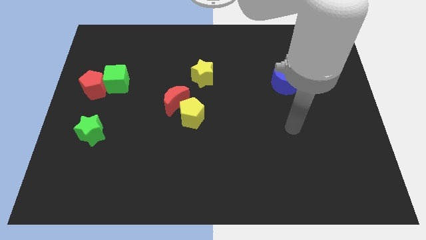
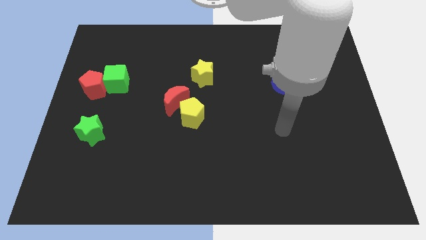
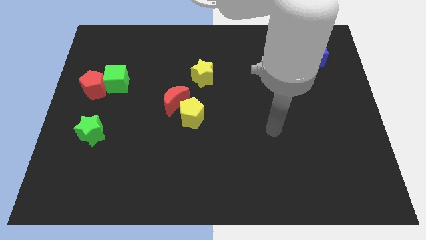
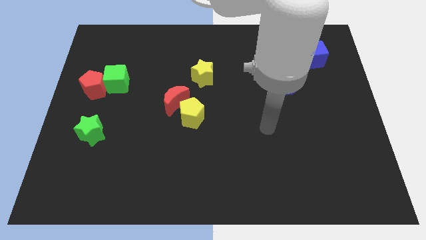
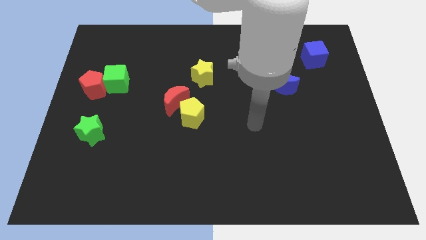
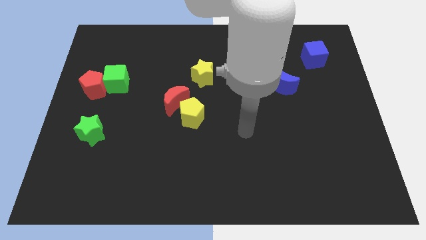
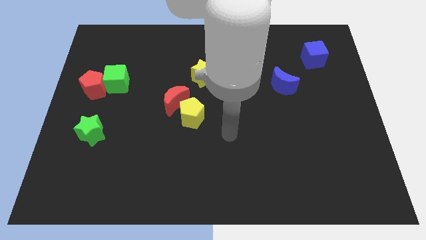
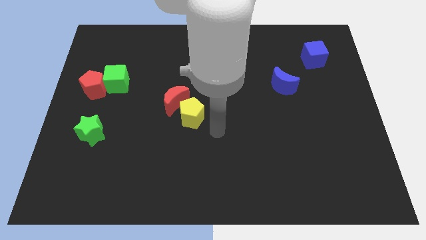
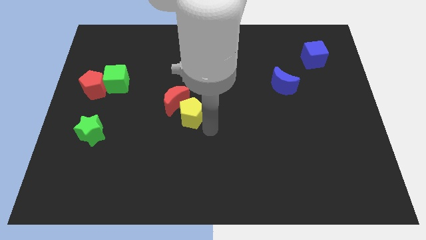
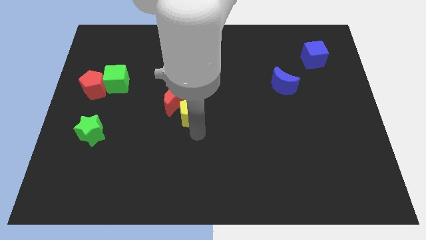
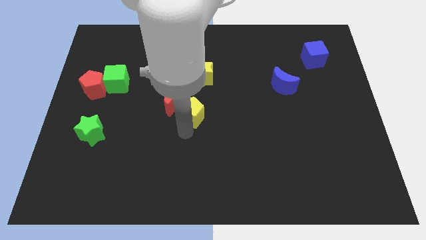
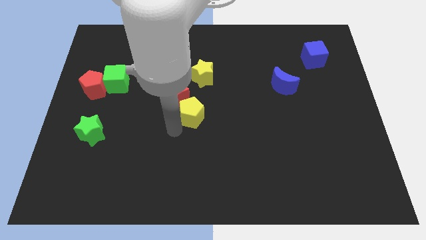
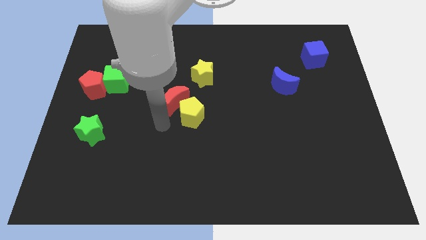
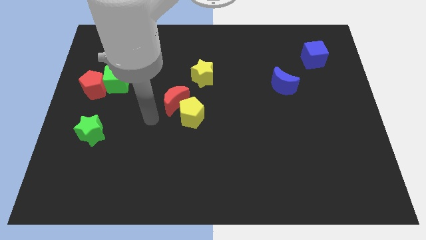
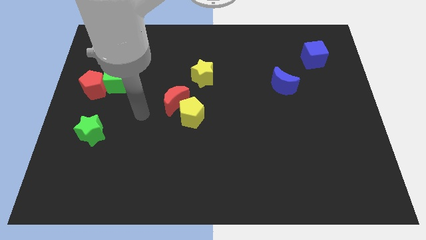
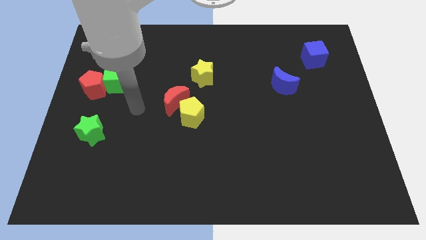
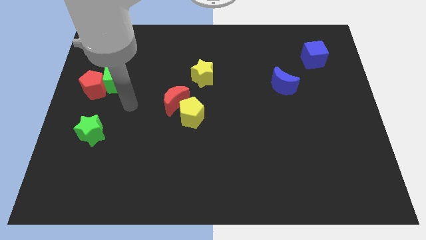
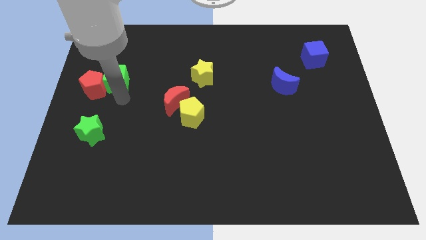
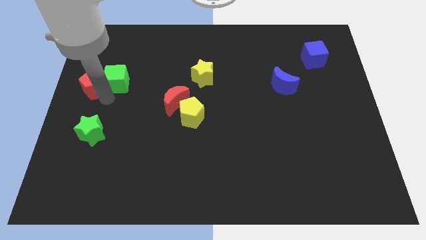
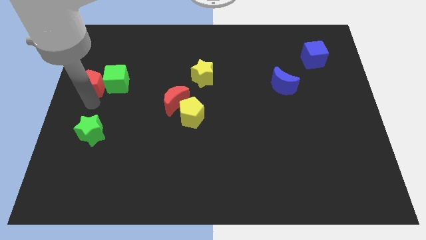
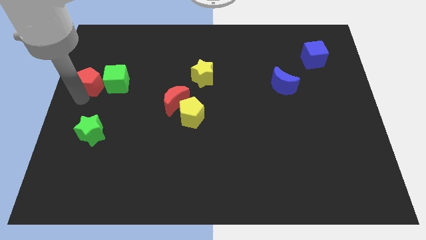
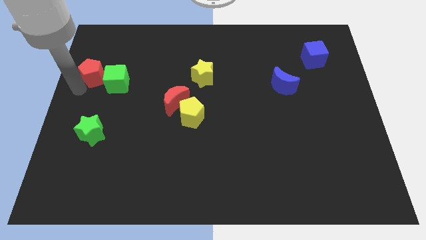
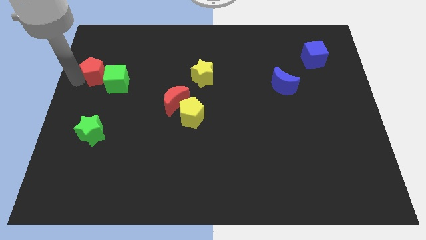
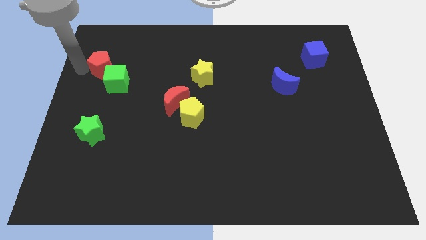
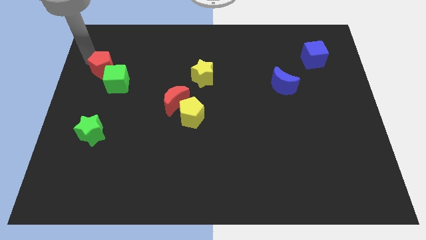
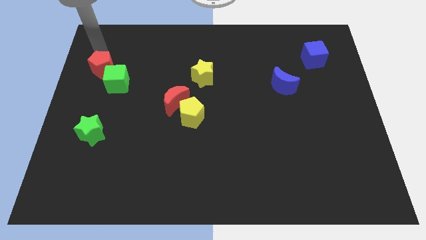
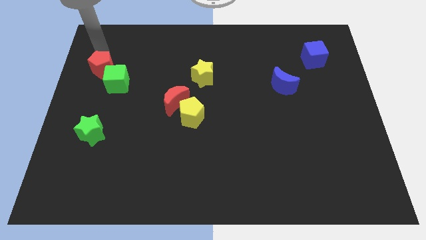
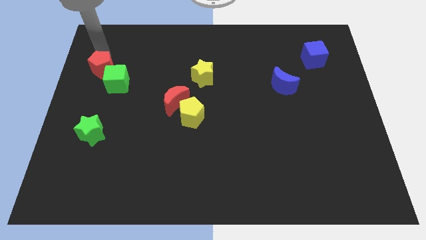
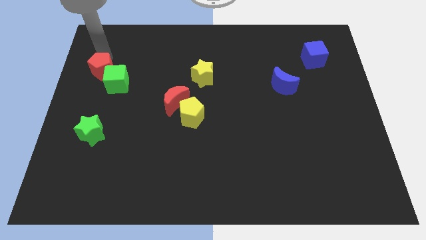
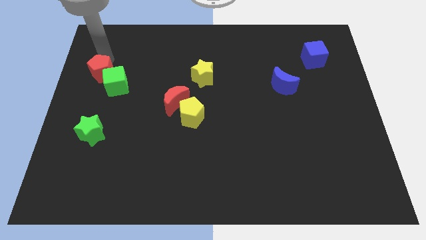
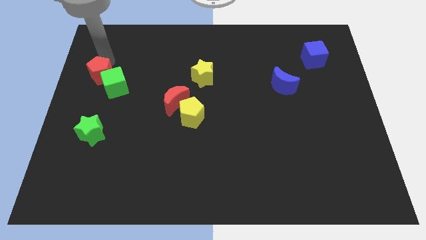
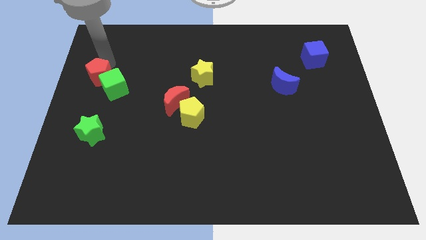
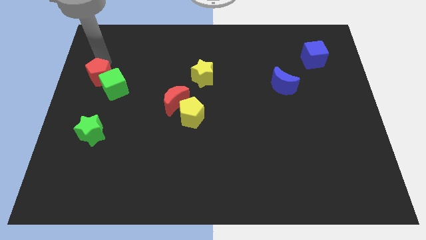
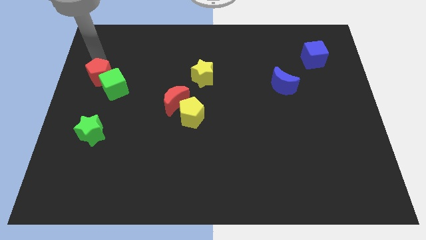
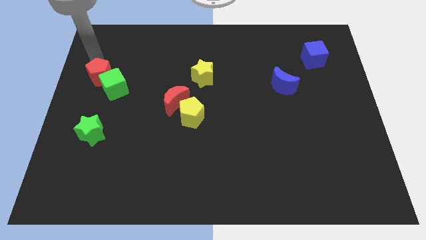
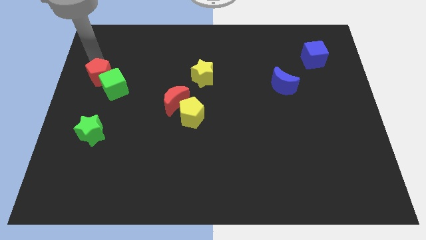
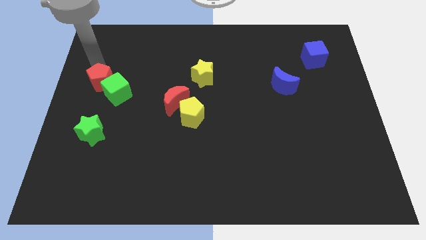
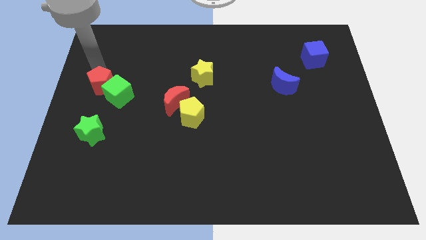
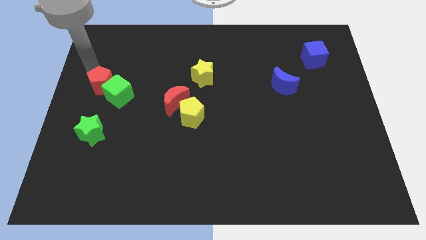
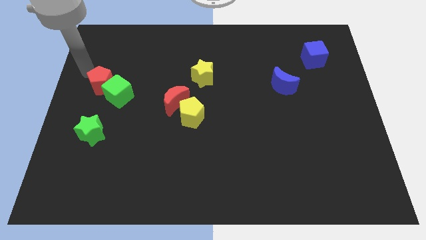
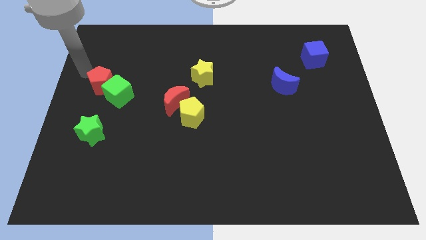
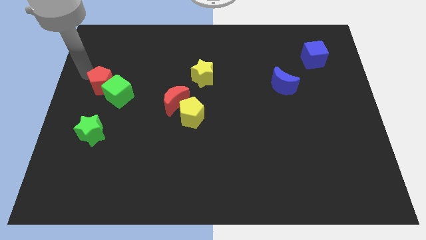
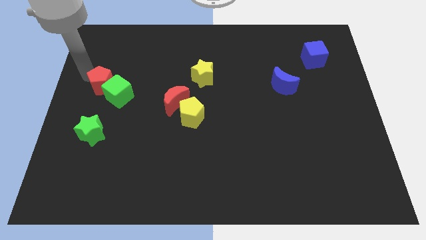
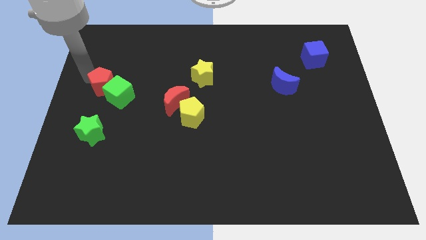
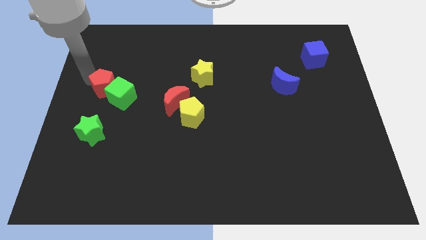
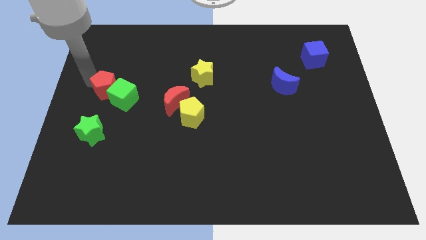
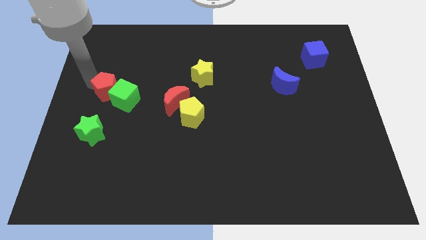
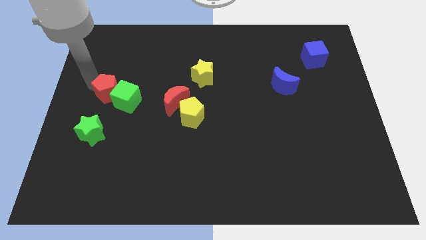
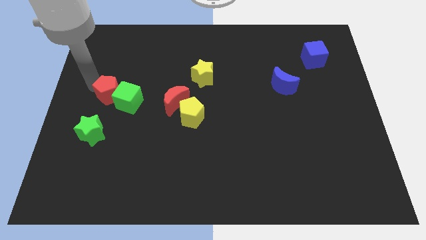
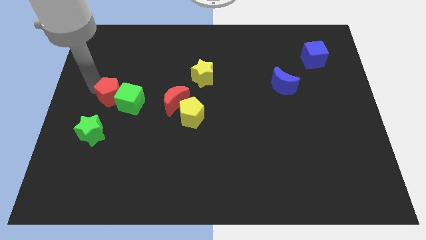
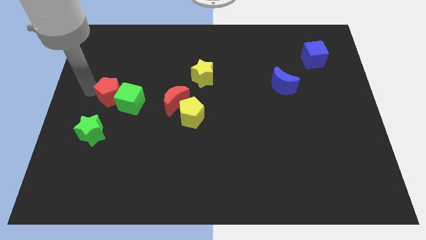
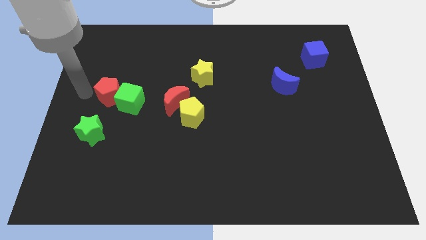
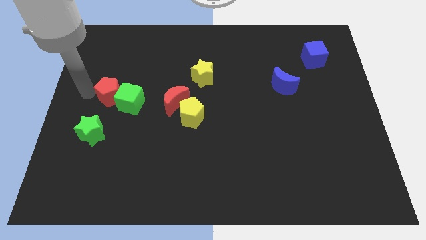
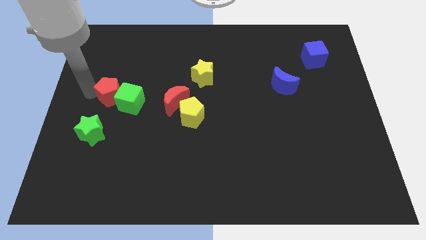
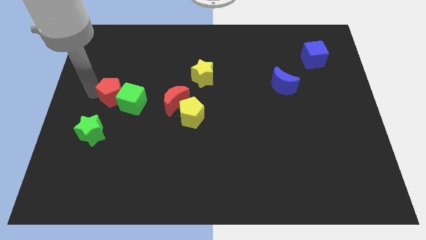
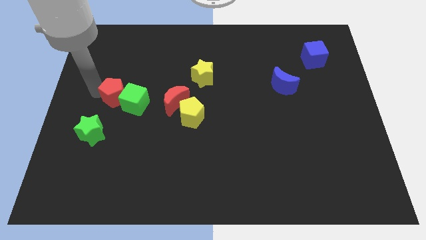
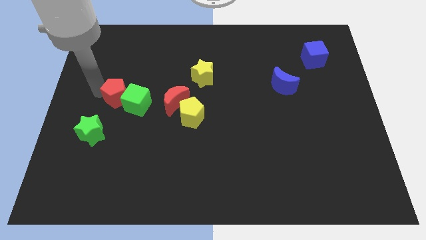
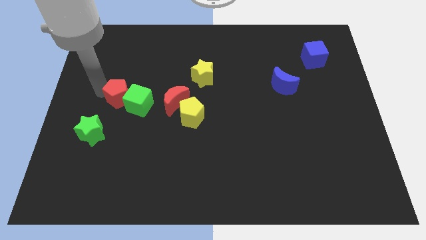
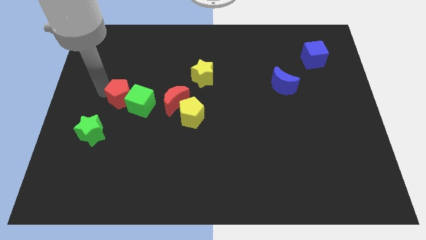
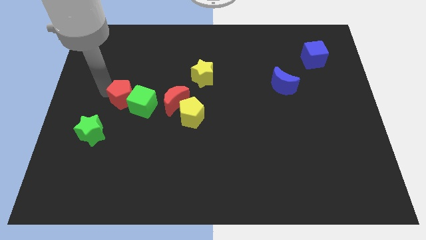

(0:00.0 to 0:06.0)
move the red pentagon to the right slightly

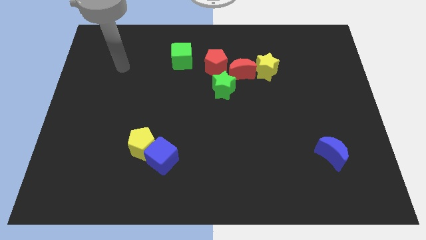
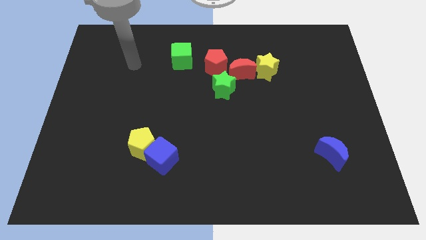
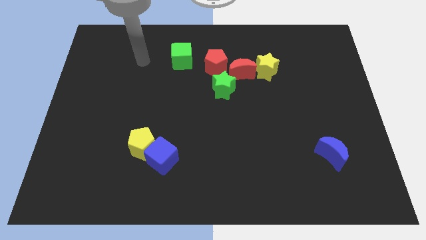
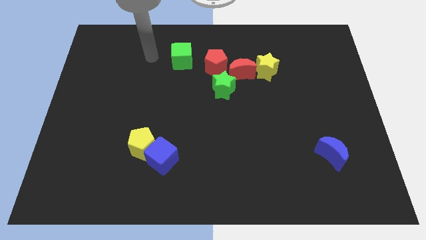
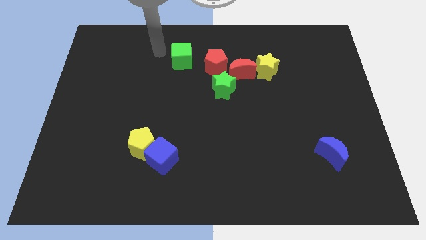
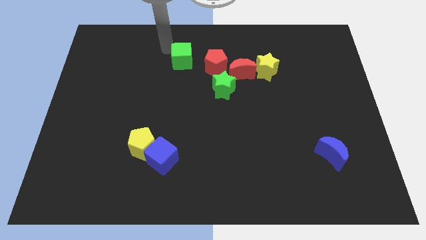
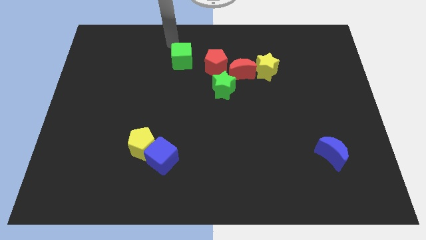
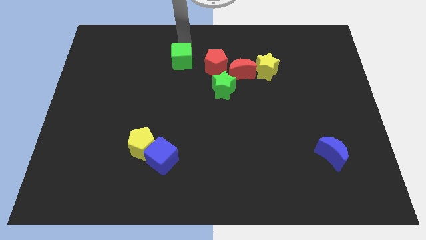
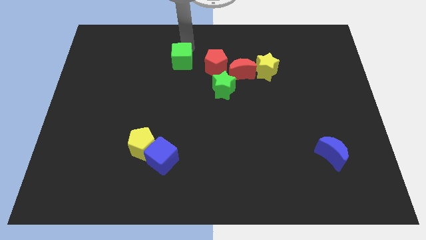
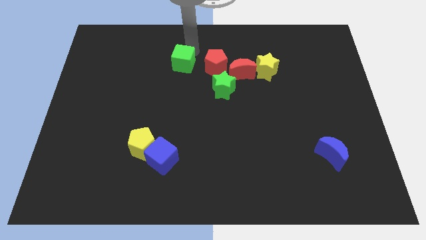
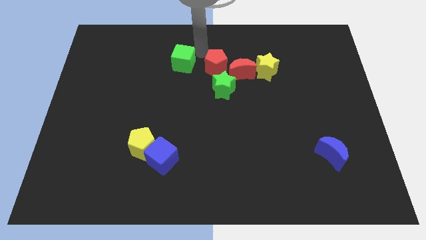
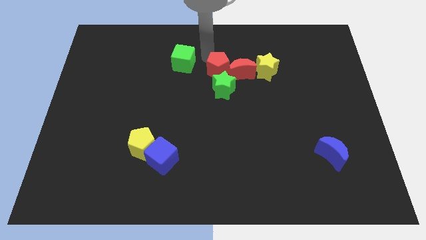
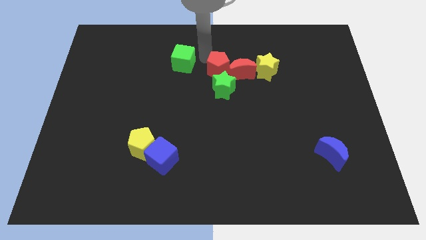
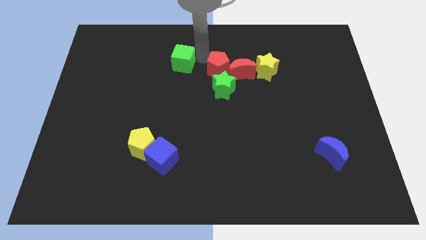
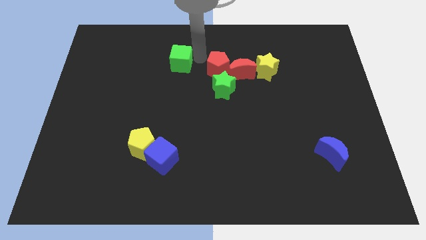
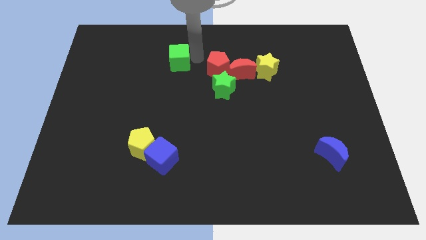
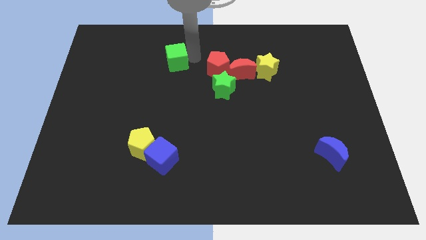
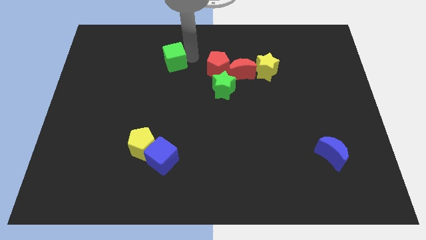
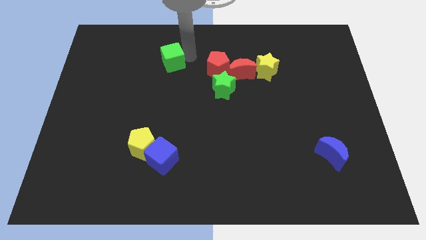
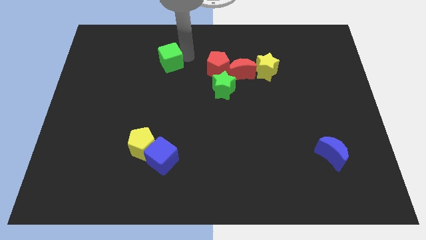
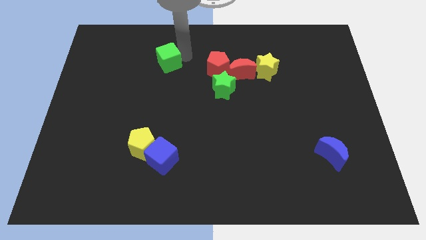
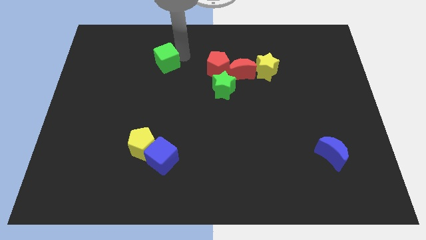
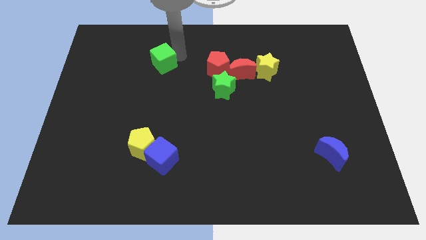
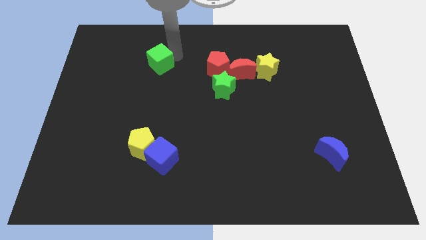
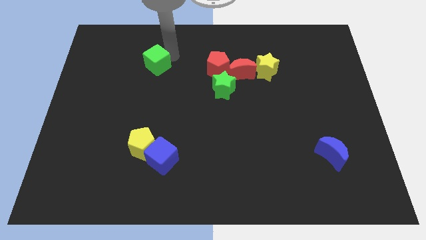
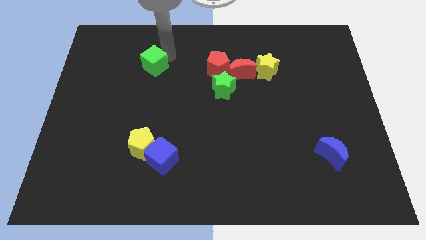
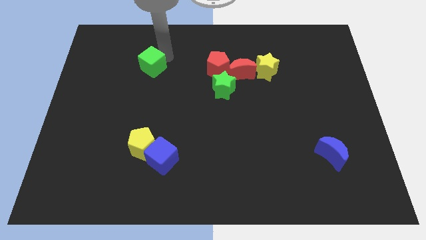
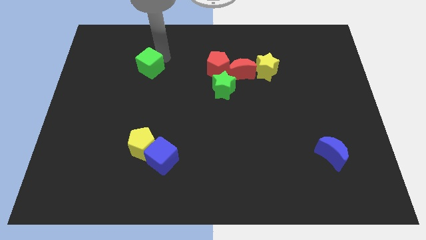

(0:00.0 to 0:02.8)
slightly move the green cube downwards and then to the left
